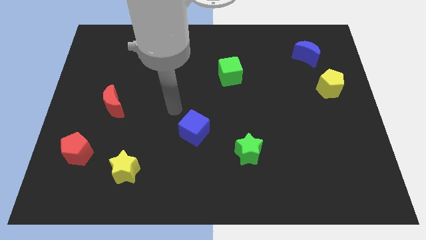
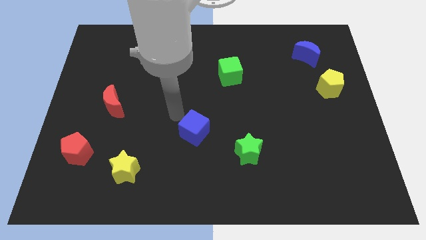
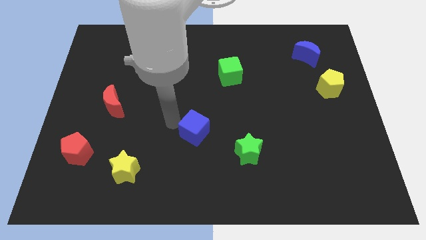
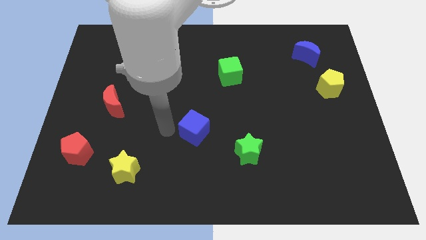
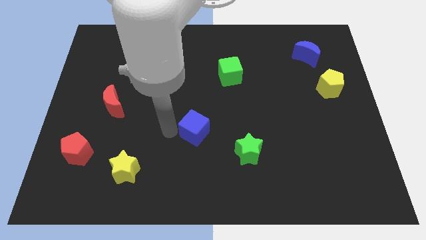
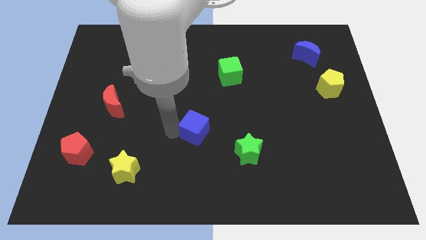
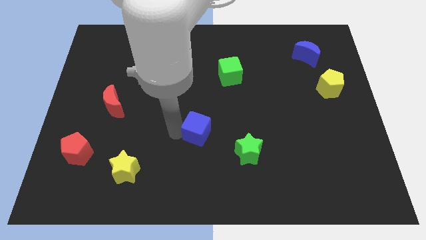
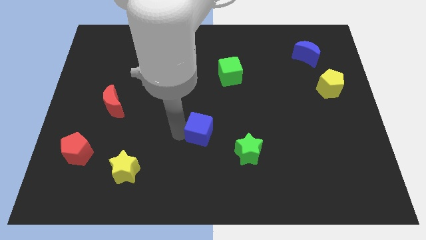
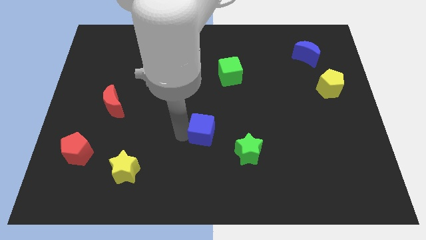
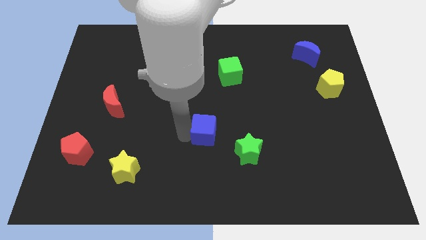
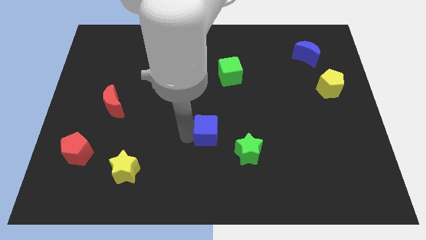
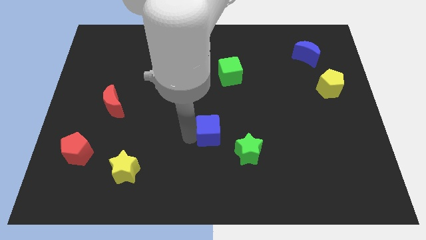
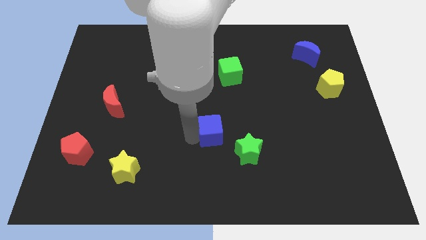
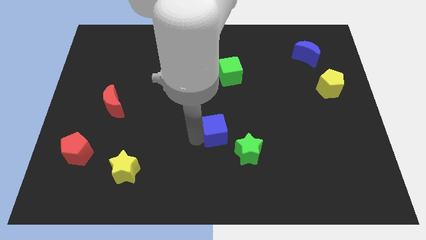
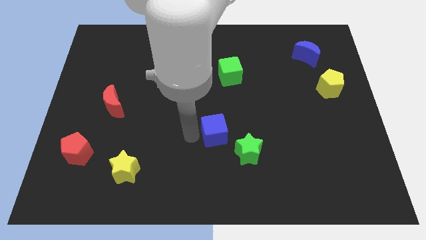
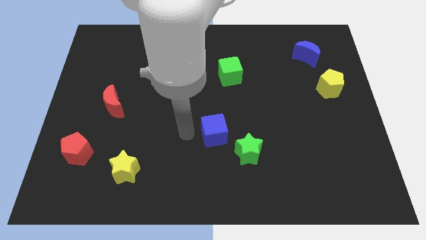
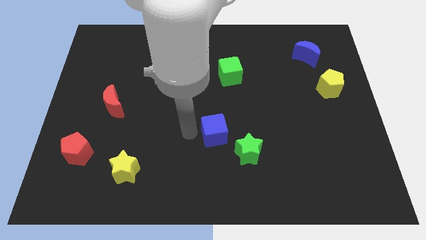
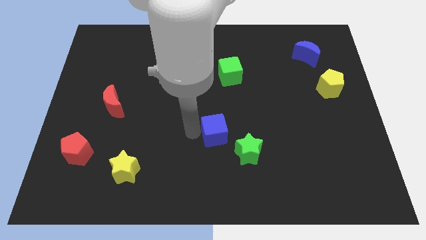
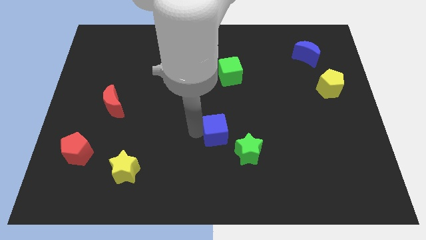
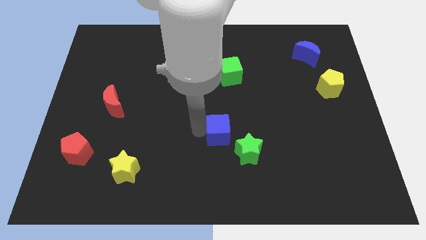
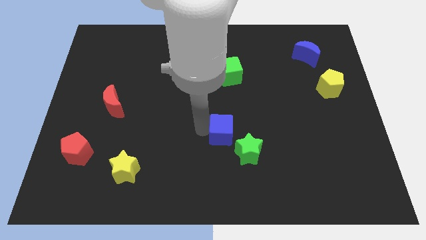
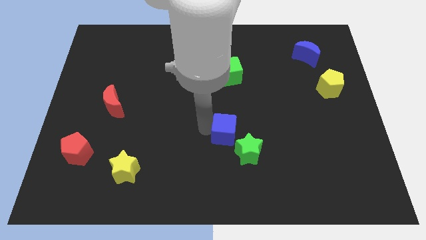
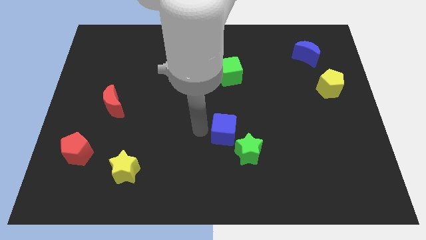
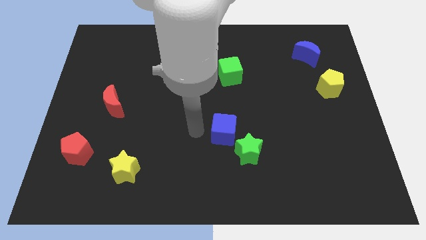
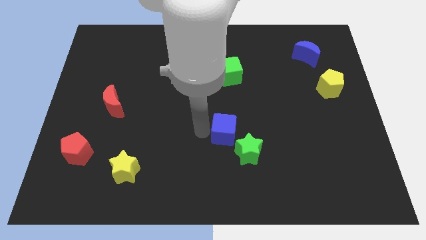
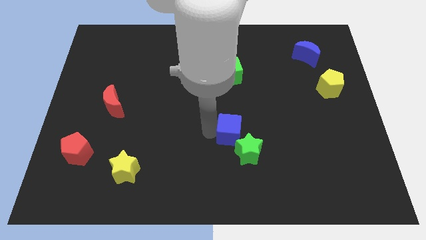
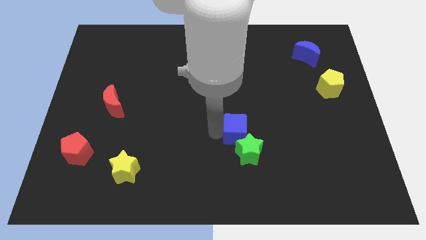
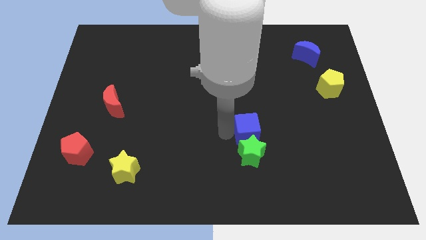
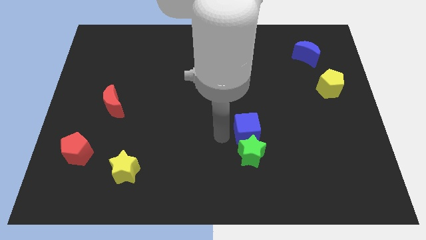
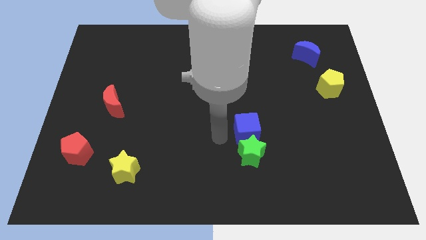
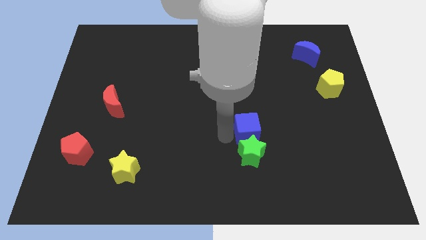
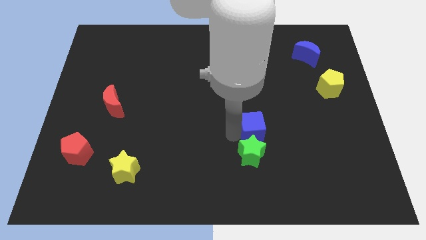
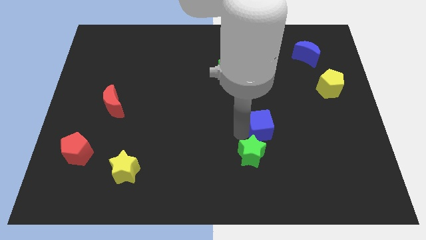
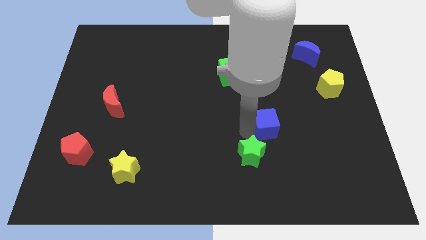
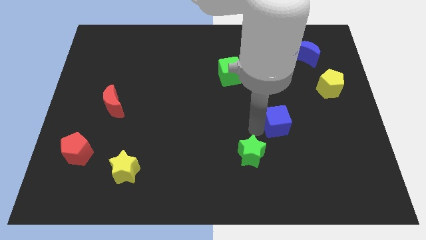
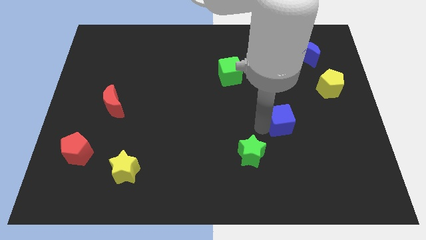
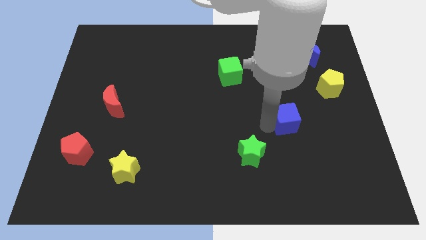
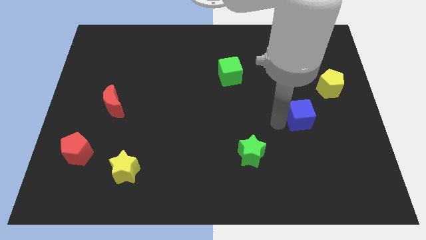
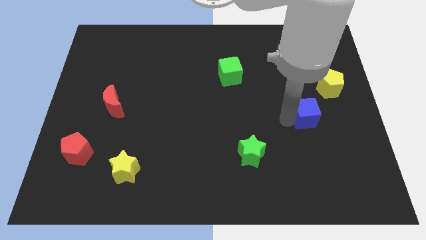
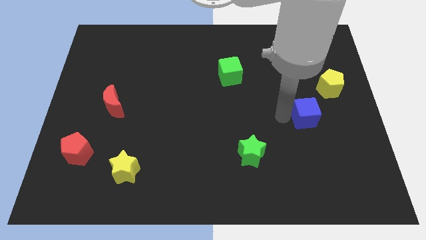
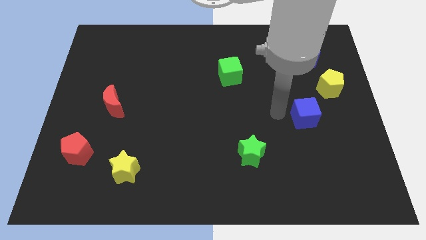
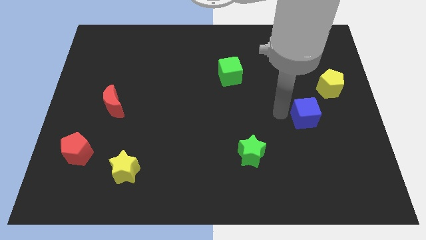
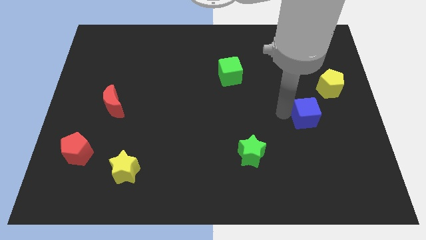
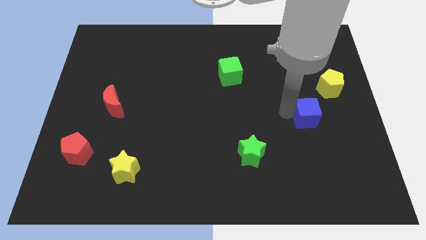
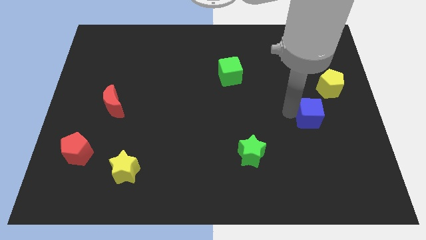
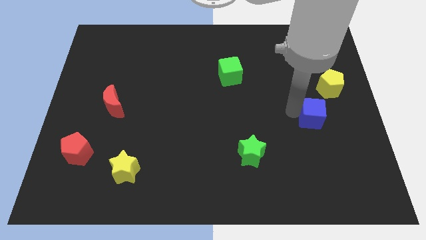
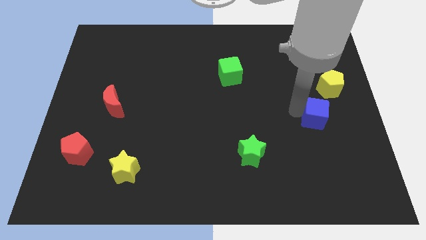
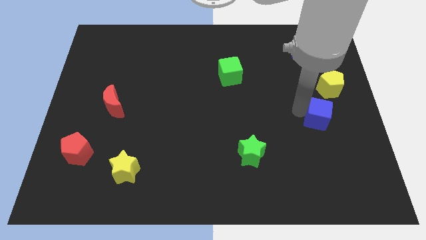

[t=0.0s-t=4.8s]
put the blue cube to the bottom of the yellow pentagon

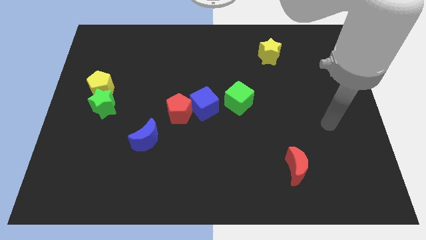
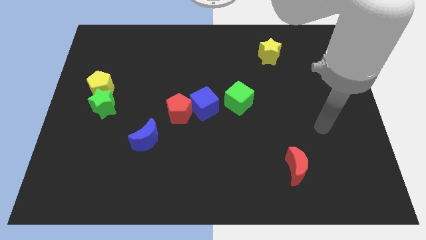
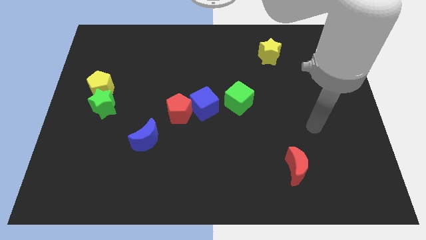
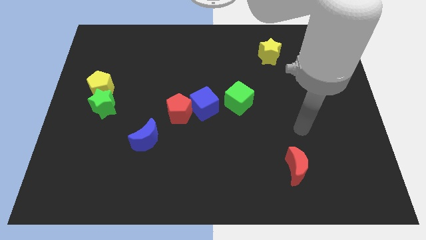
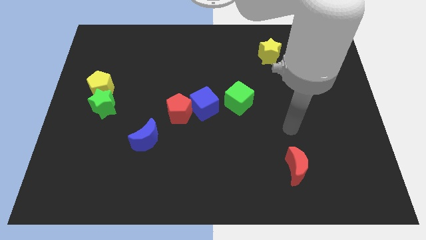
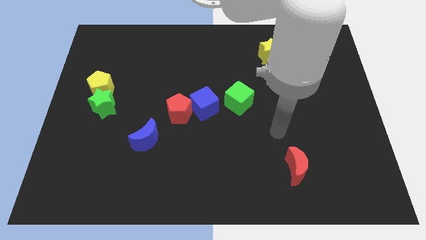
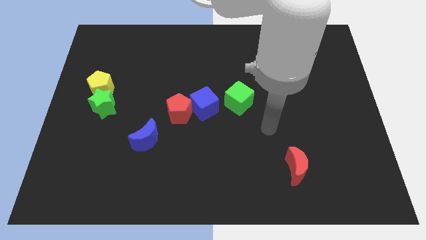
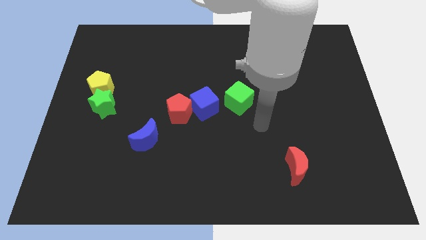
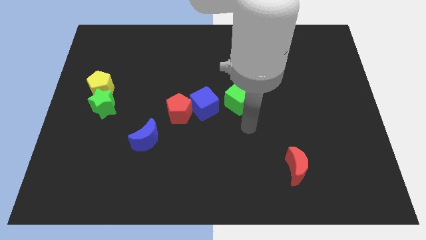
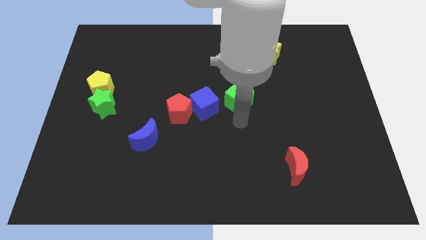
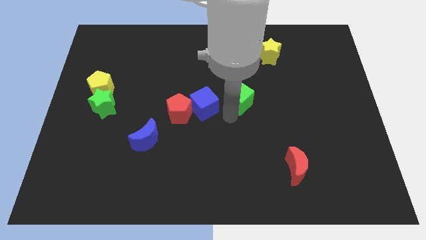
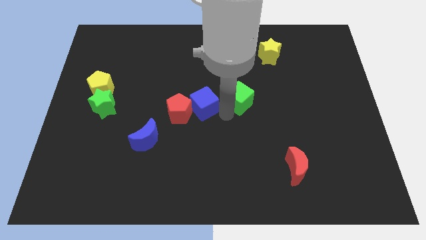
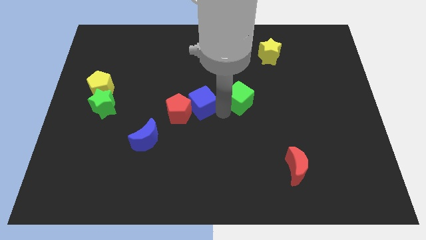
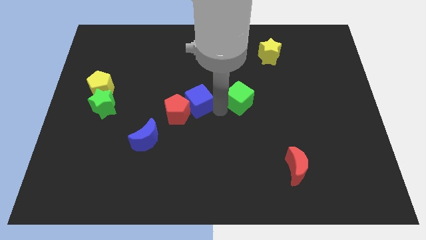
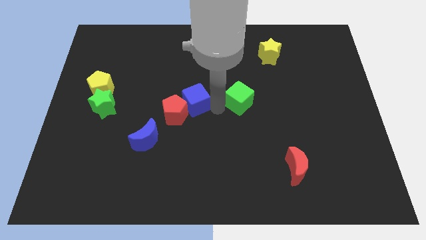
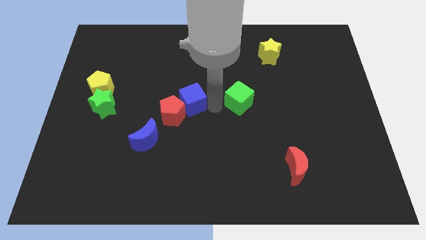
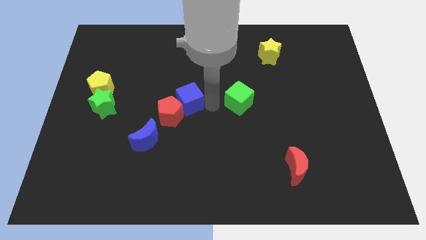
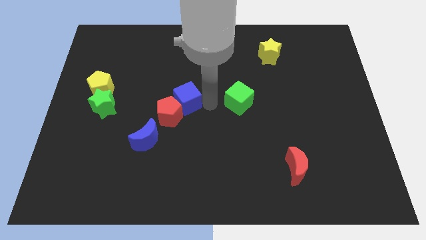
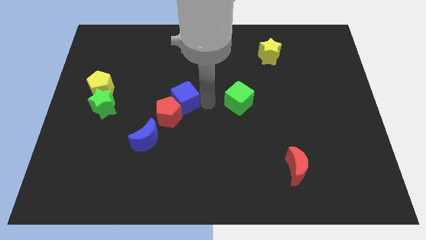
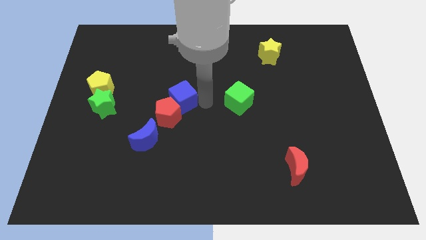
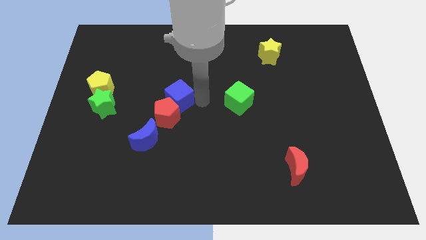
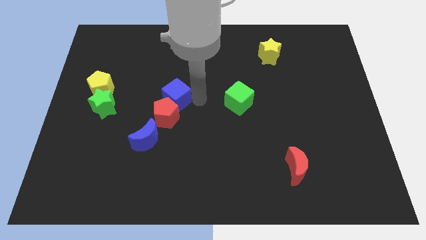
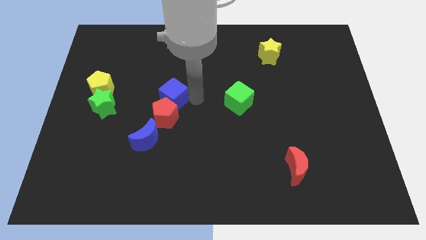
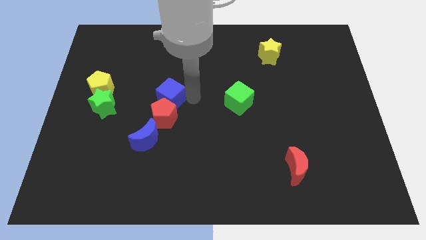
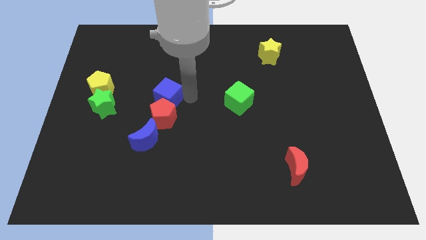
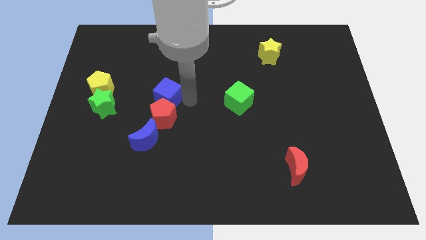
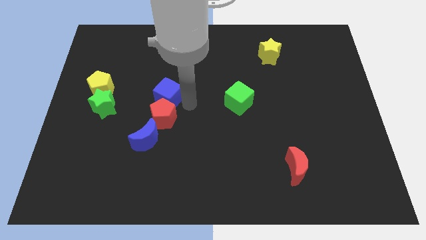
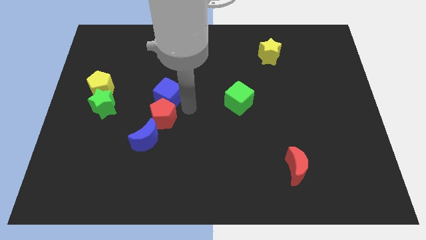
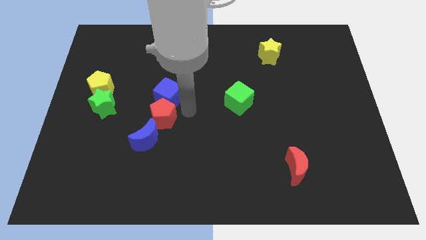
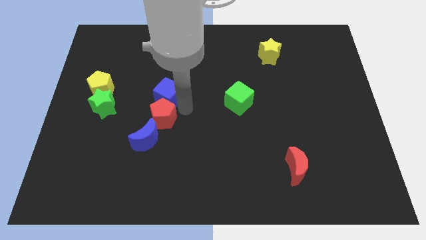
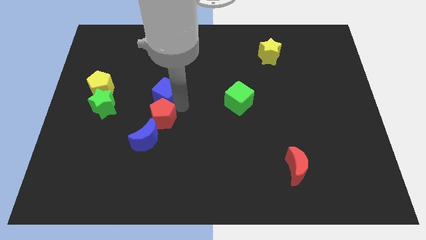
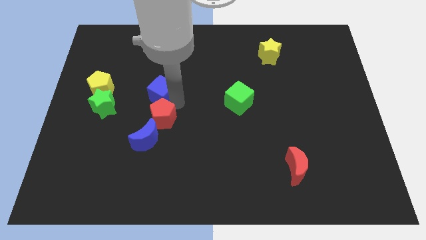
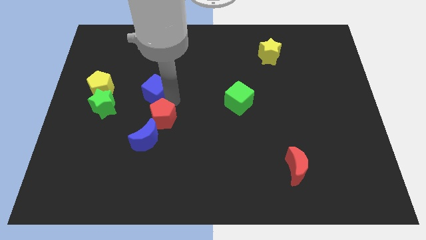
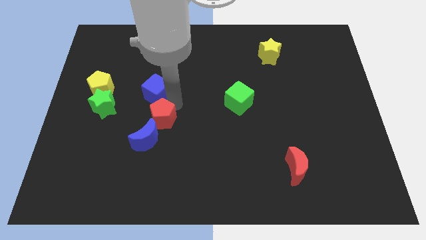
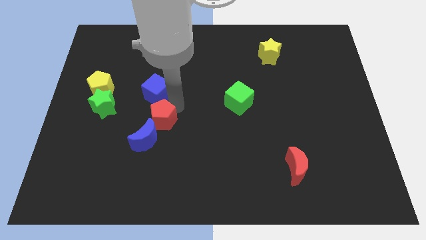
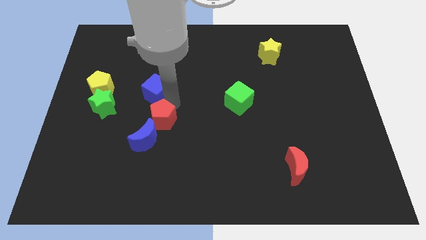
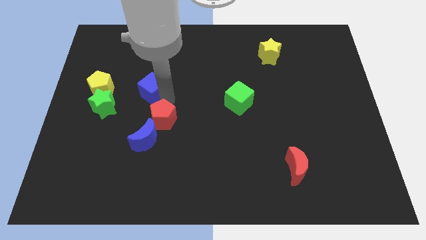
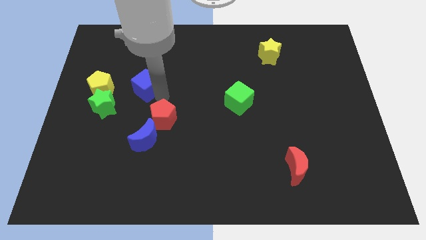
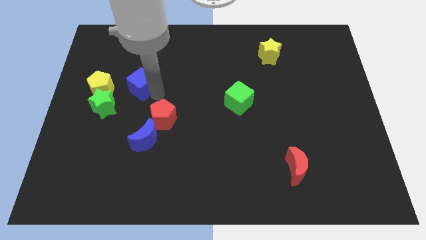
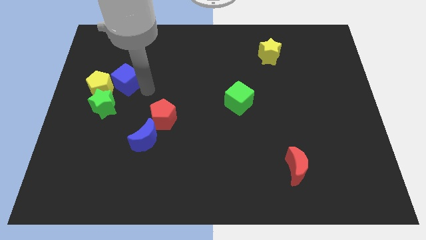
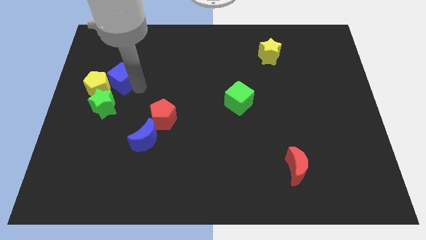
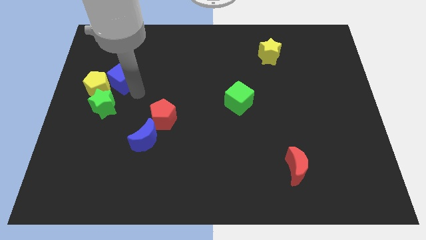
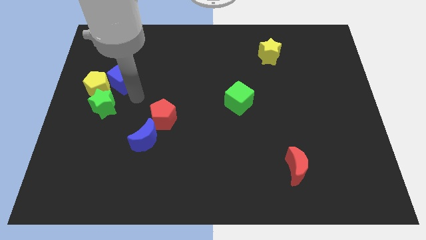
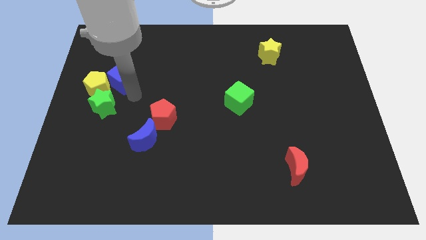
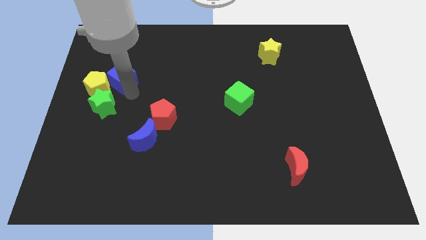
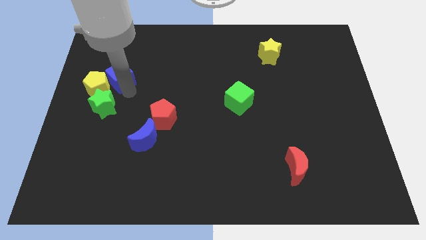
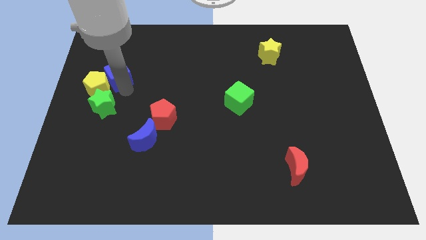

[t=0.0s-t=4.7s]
move the blue cube to the top side of the yellow pentagon
